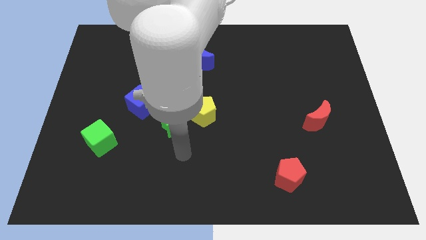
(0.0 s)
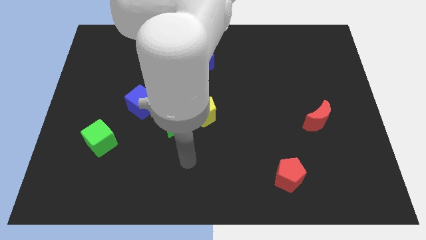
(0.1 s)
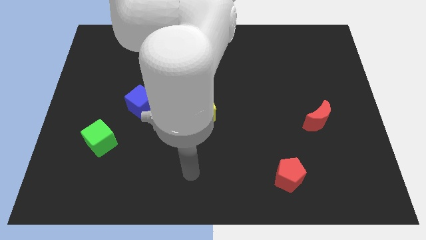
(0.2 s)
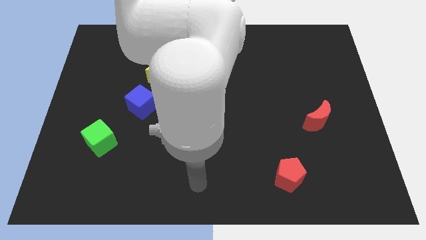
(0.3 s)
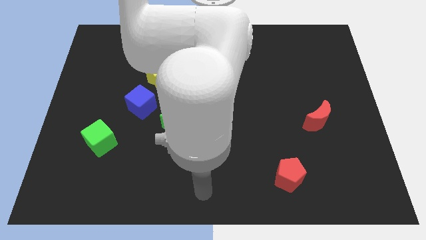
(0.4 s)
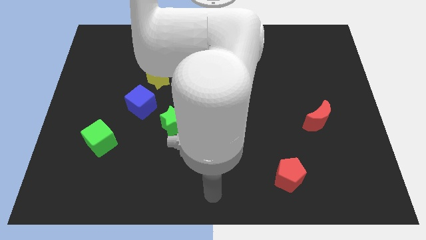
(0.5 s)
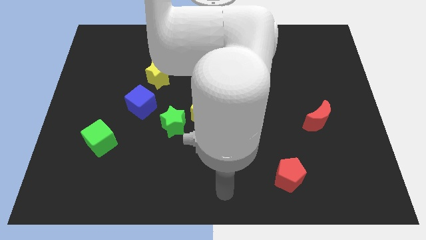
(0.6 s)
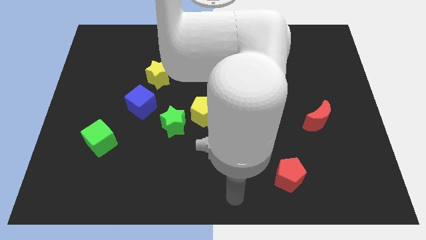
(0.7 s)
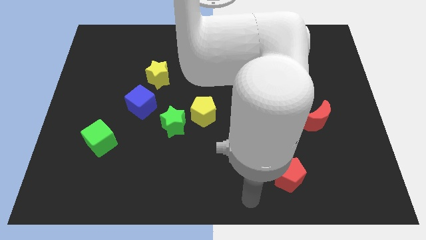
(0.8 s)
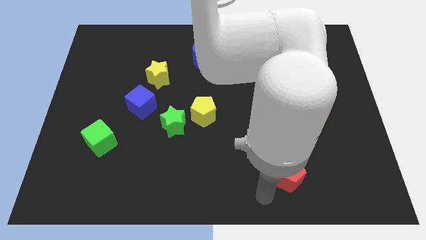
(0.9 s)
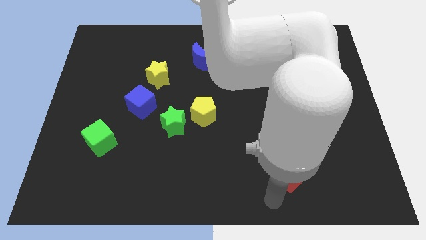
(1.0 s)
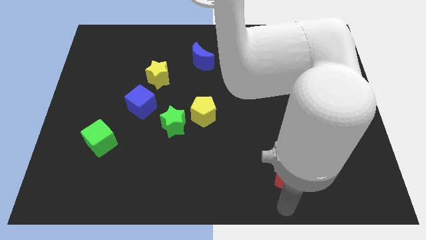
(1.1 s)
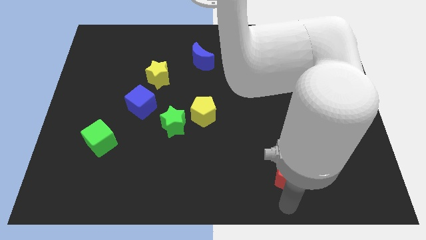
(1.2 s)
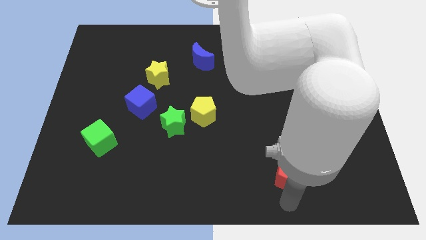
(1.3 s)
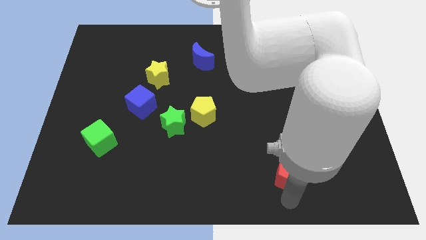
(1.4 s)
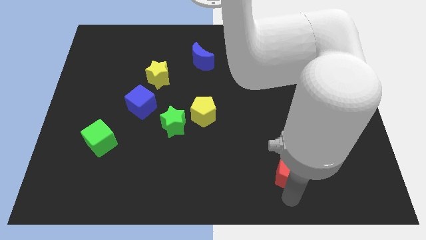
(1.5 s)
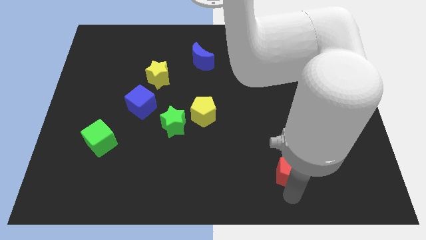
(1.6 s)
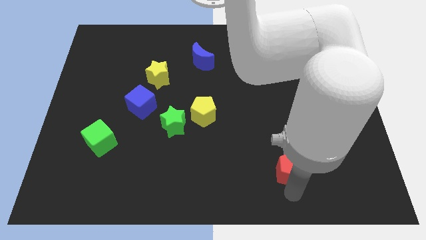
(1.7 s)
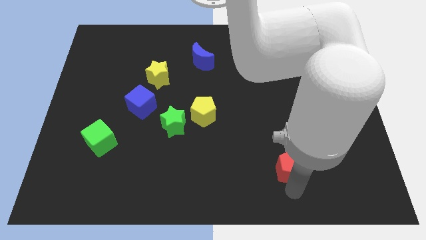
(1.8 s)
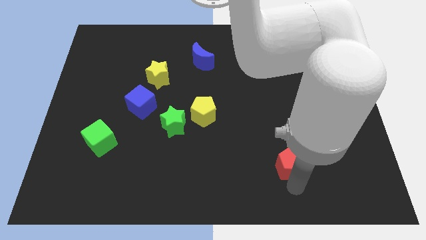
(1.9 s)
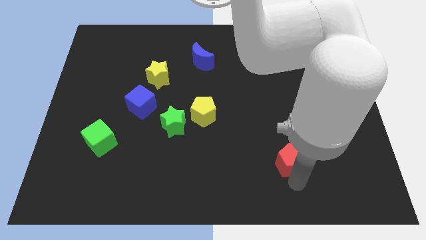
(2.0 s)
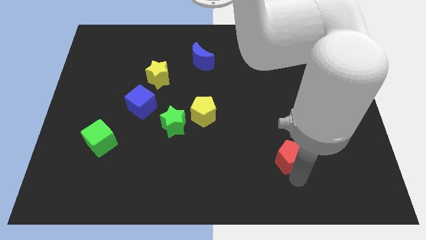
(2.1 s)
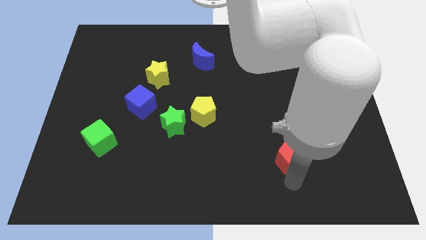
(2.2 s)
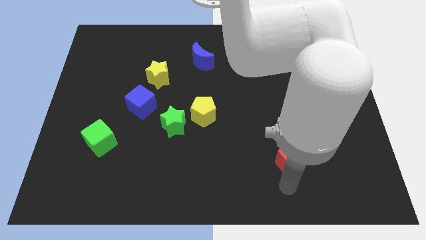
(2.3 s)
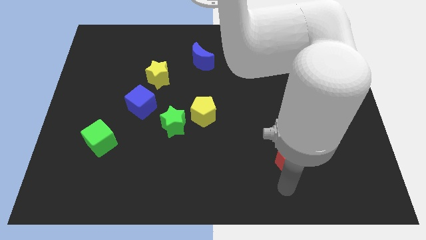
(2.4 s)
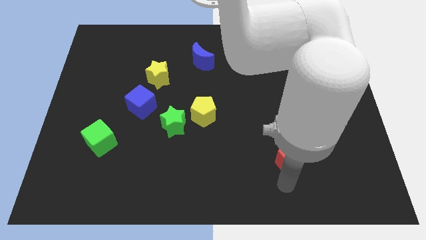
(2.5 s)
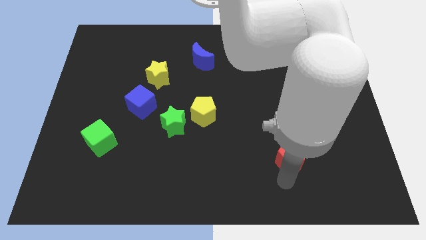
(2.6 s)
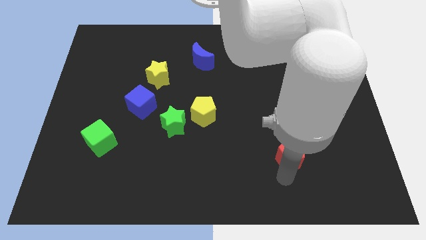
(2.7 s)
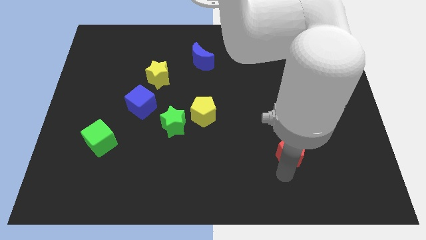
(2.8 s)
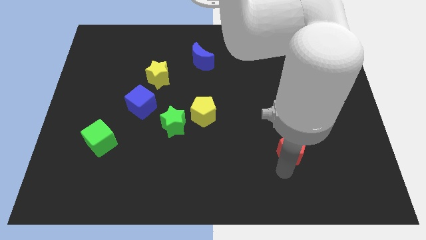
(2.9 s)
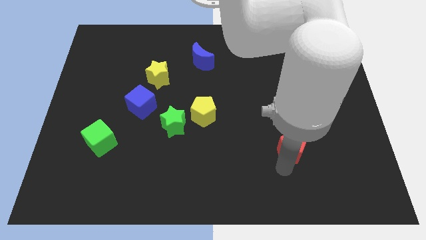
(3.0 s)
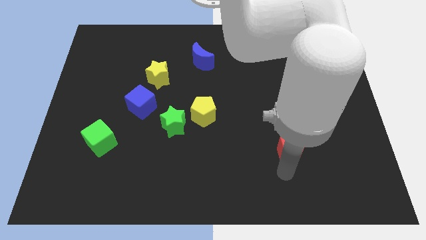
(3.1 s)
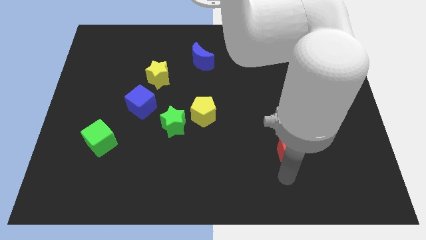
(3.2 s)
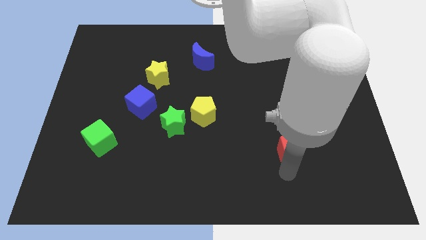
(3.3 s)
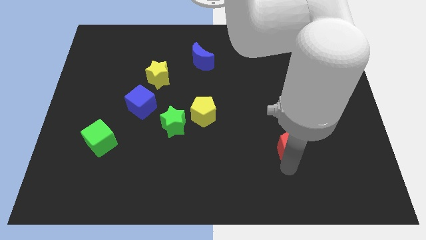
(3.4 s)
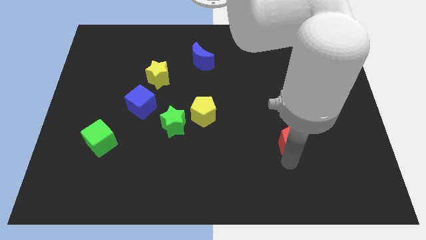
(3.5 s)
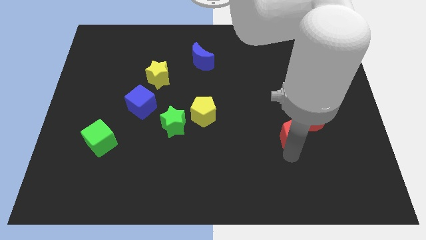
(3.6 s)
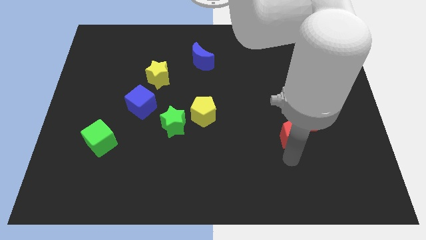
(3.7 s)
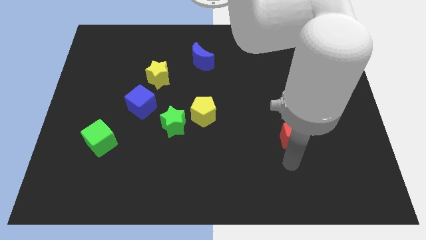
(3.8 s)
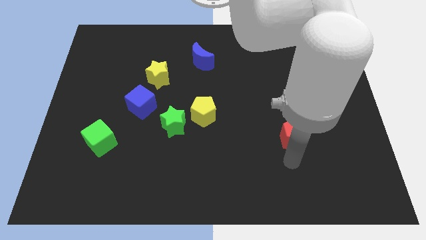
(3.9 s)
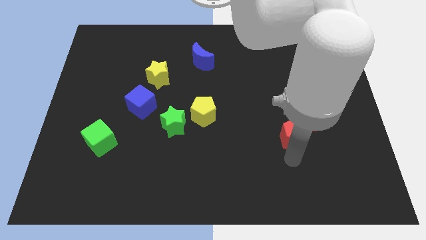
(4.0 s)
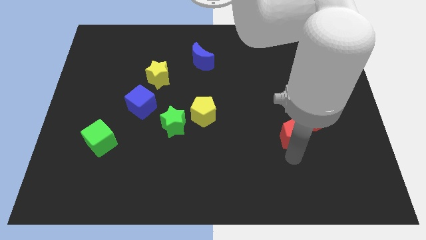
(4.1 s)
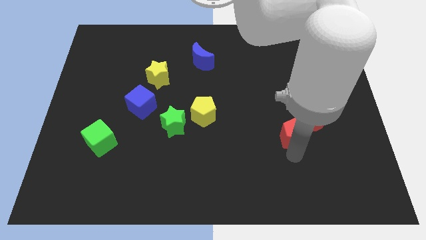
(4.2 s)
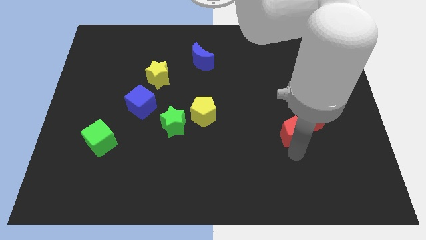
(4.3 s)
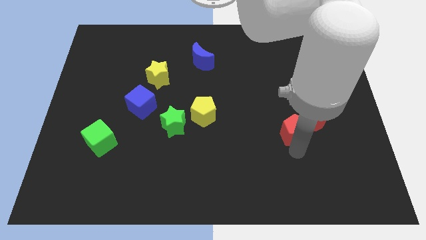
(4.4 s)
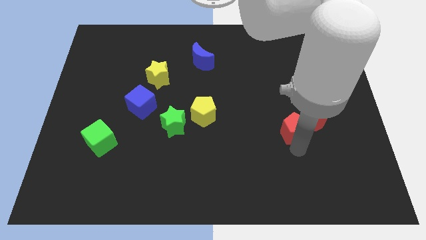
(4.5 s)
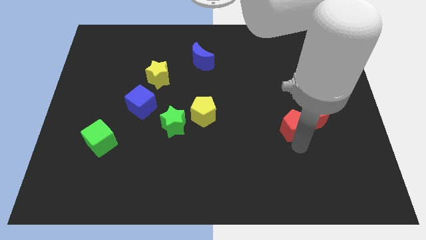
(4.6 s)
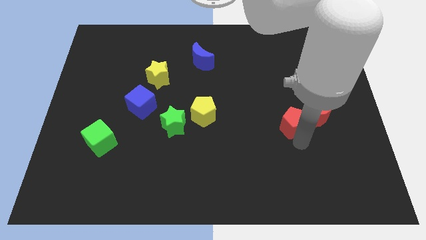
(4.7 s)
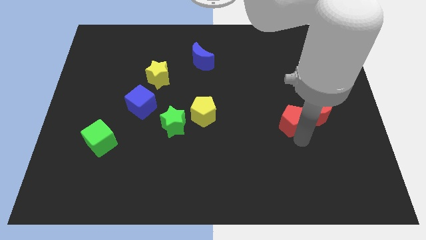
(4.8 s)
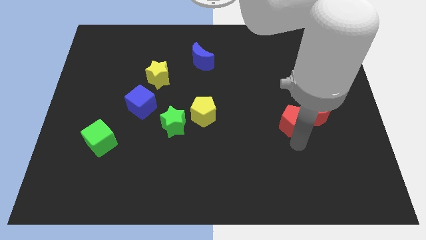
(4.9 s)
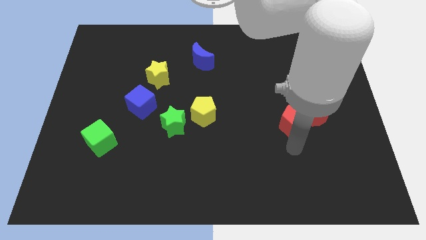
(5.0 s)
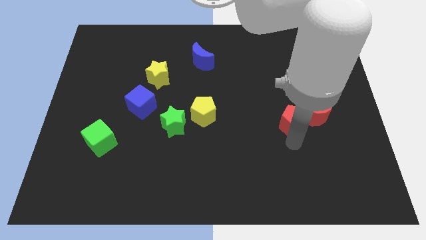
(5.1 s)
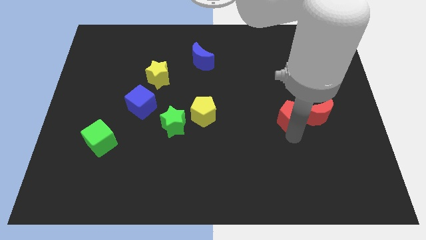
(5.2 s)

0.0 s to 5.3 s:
push the red pentagon to the top left of the red moon

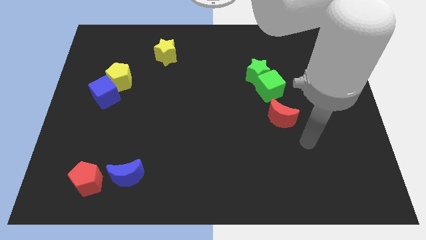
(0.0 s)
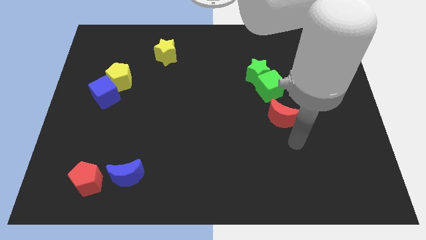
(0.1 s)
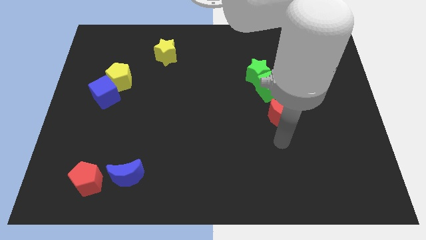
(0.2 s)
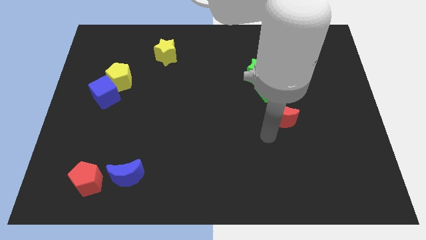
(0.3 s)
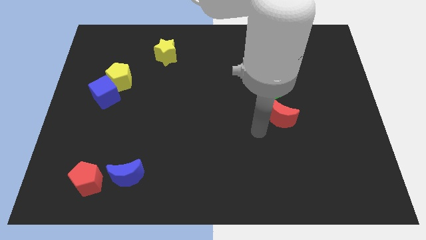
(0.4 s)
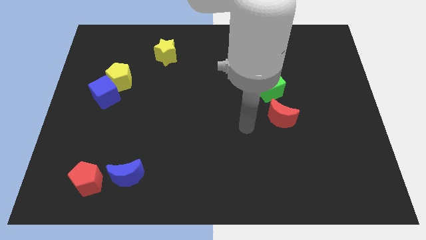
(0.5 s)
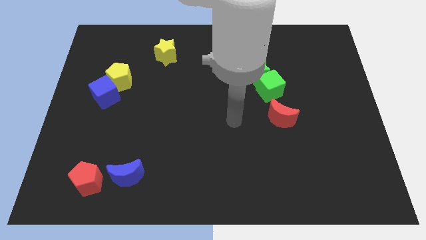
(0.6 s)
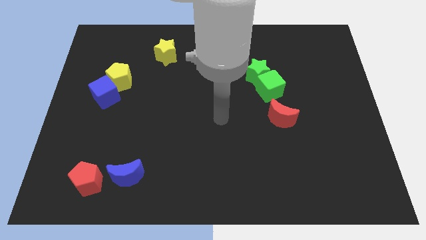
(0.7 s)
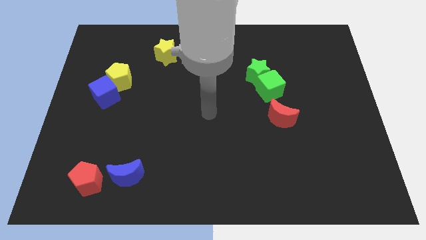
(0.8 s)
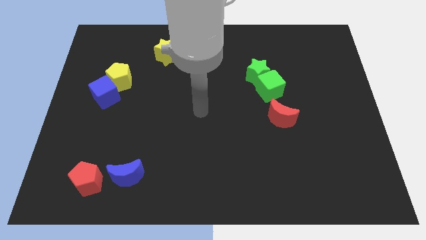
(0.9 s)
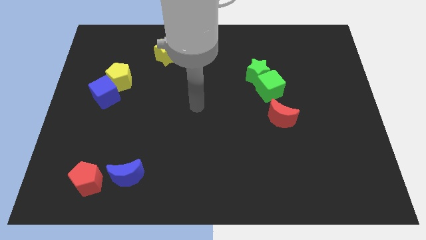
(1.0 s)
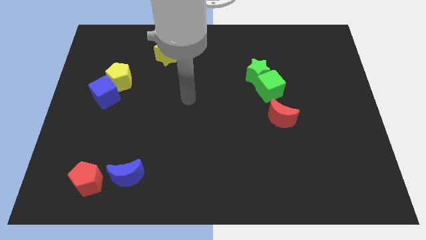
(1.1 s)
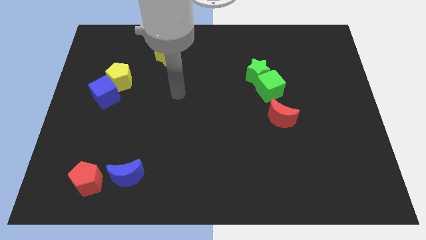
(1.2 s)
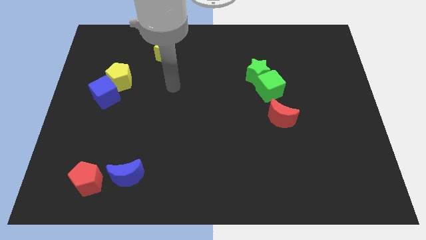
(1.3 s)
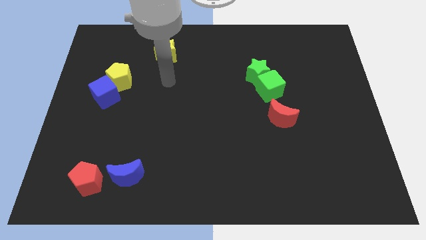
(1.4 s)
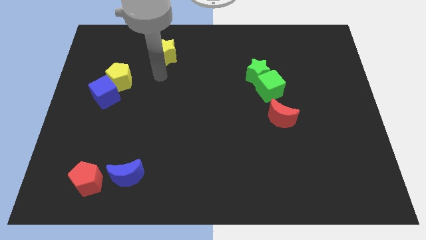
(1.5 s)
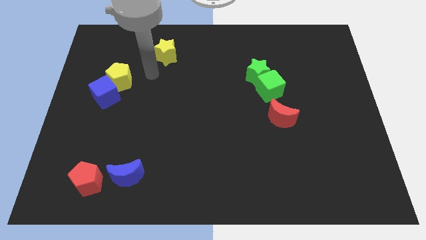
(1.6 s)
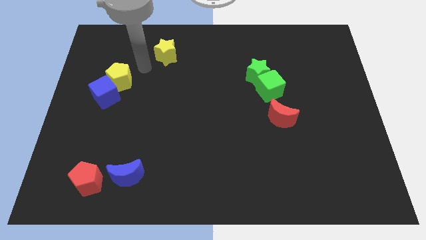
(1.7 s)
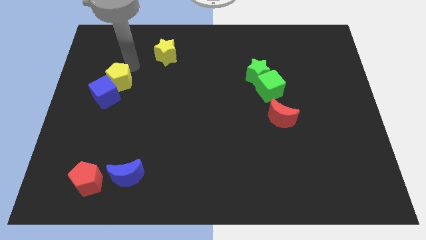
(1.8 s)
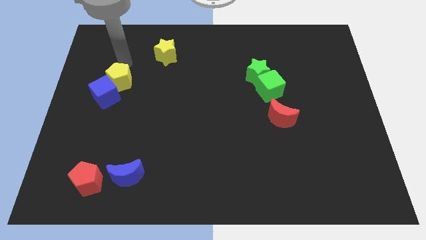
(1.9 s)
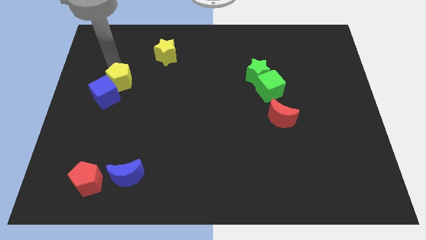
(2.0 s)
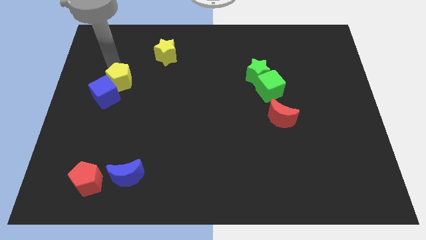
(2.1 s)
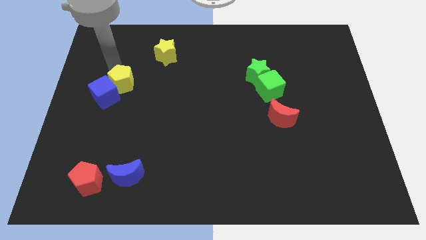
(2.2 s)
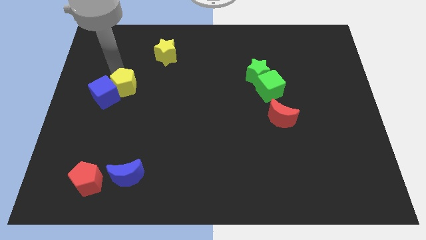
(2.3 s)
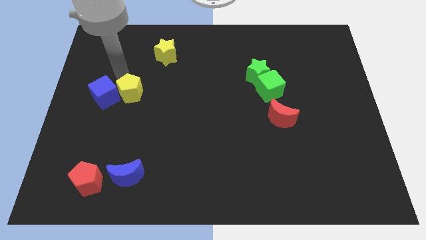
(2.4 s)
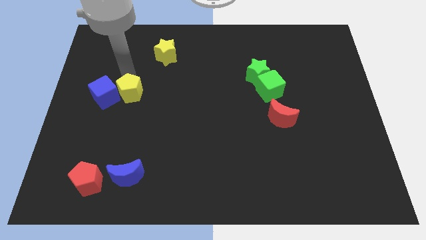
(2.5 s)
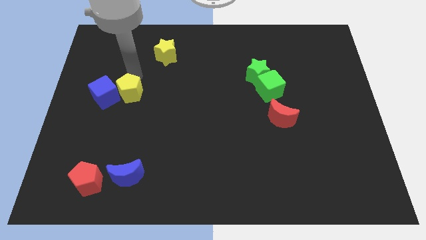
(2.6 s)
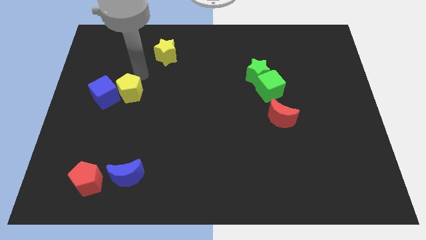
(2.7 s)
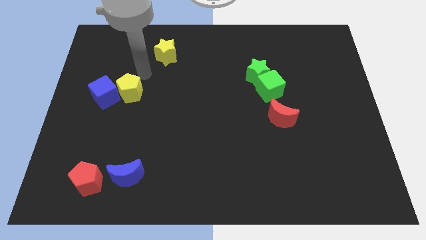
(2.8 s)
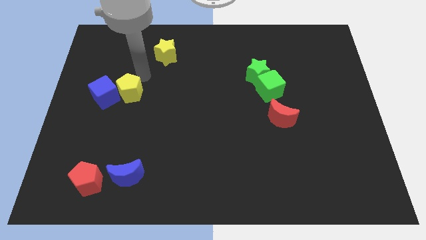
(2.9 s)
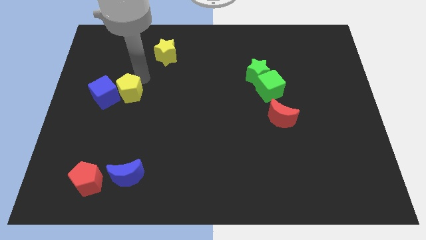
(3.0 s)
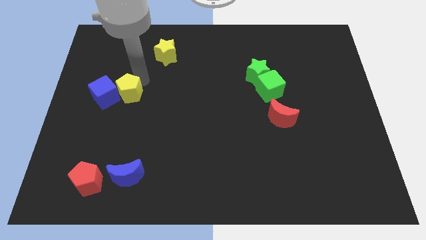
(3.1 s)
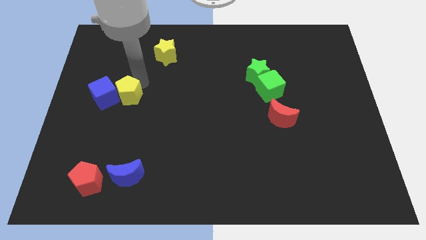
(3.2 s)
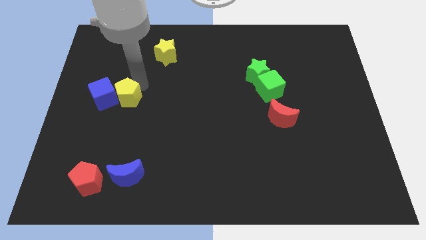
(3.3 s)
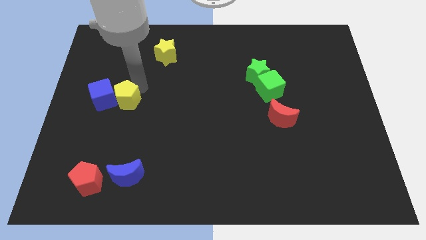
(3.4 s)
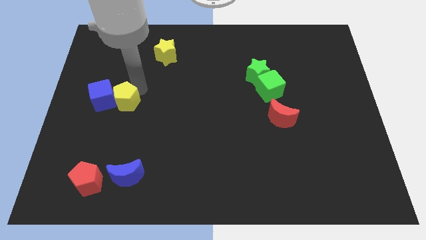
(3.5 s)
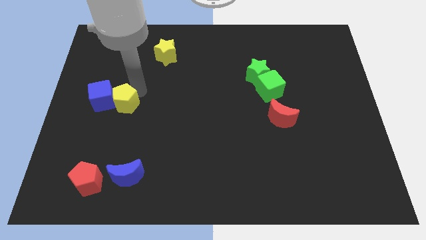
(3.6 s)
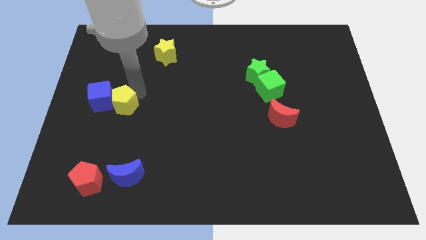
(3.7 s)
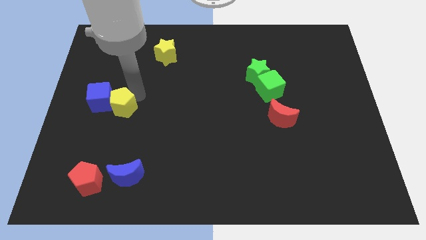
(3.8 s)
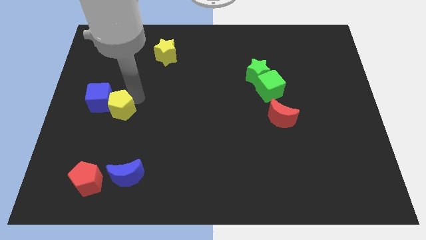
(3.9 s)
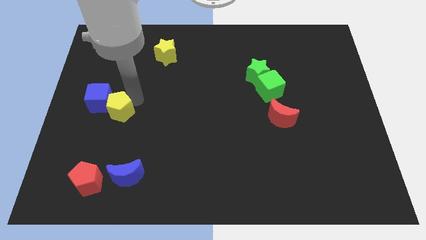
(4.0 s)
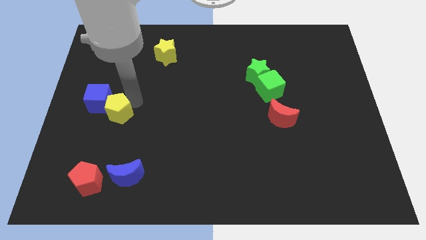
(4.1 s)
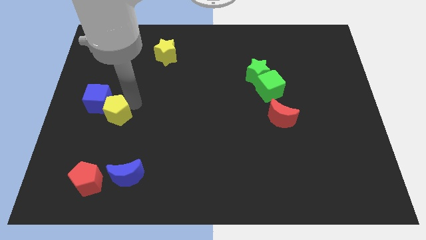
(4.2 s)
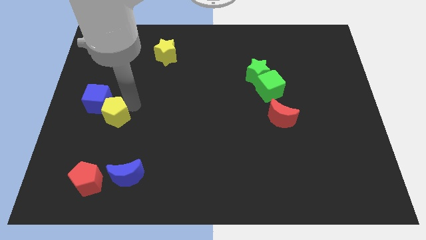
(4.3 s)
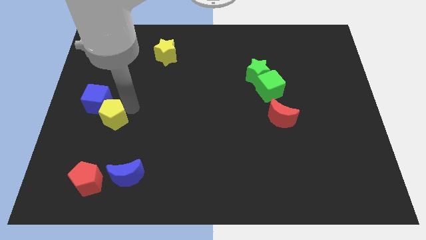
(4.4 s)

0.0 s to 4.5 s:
slide the yellow pentagon above the red pentagon
